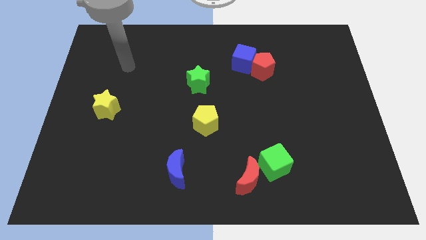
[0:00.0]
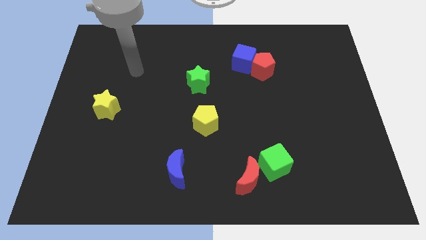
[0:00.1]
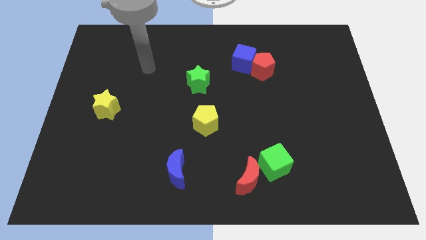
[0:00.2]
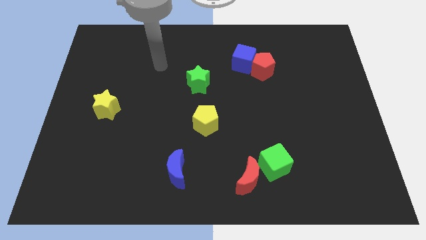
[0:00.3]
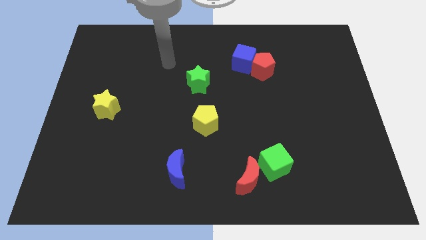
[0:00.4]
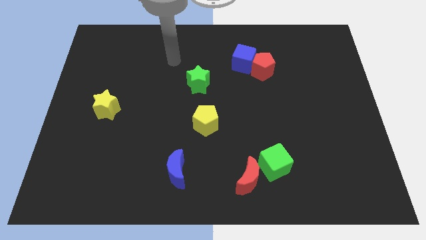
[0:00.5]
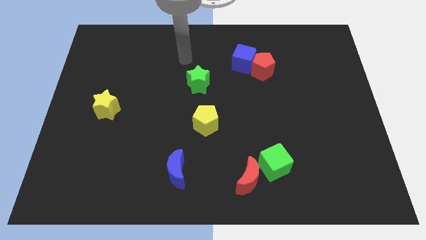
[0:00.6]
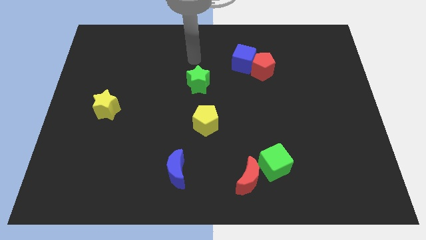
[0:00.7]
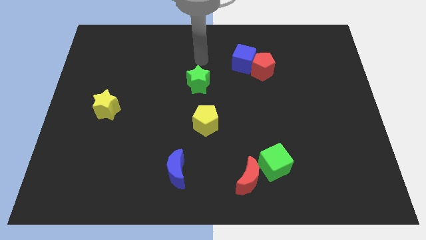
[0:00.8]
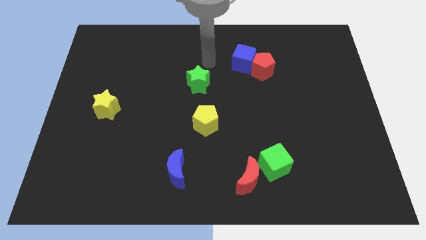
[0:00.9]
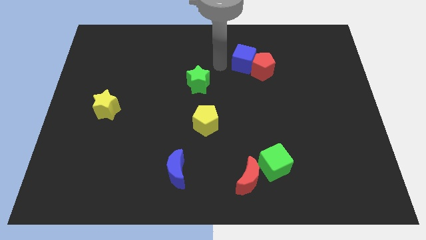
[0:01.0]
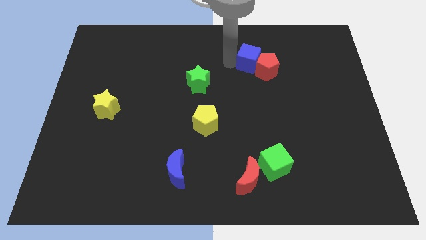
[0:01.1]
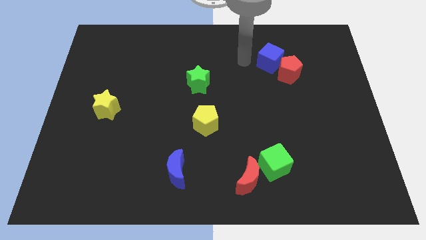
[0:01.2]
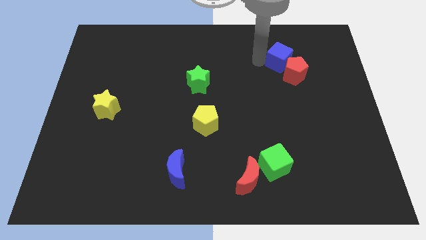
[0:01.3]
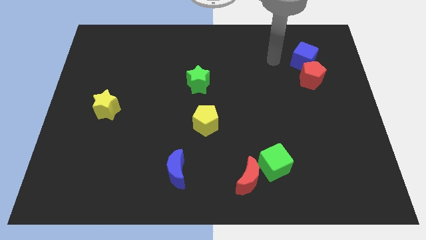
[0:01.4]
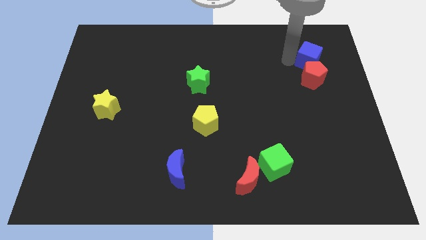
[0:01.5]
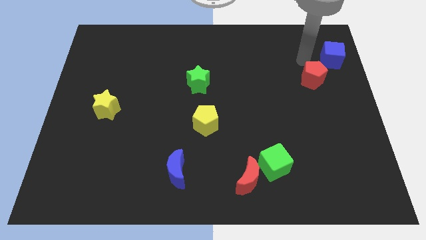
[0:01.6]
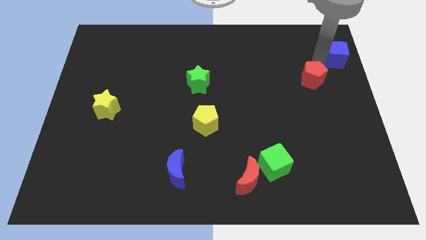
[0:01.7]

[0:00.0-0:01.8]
move the red pentagon away from the blue cube

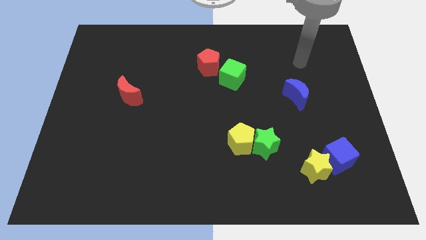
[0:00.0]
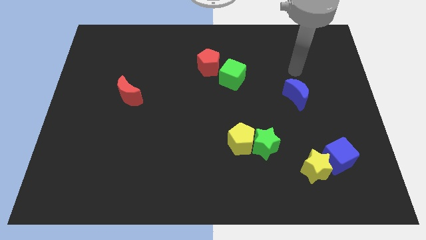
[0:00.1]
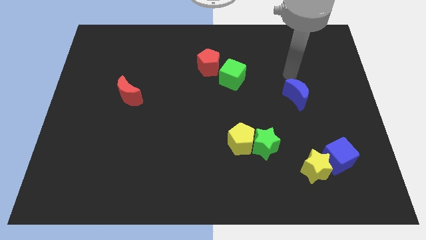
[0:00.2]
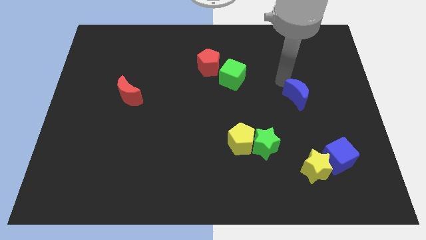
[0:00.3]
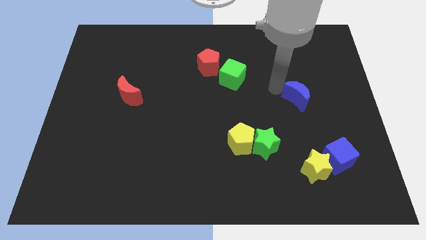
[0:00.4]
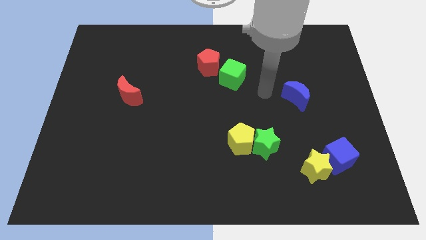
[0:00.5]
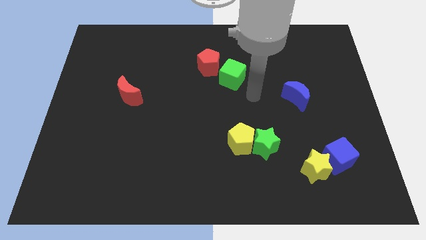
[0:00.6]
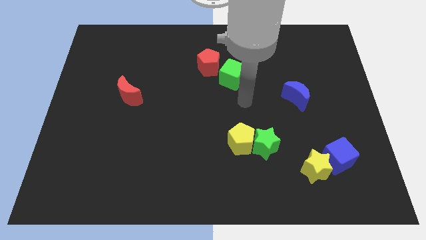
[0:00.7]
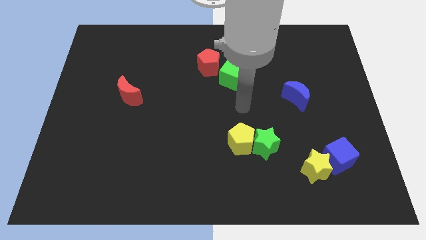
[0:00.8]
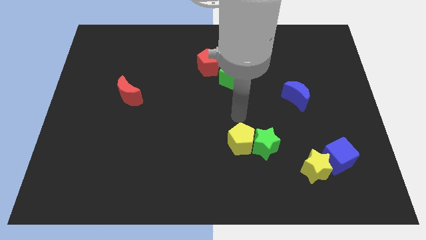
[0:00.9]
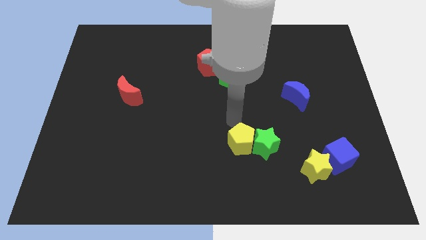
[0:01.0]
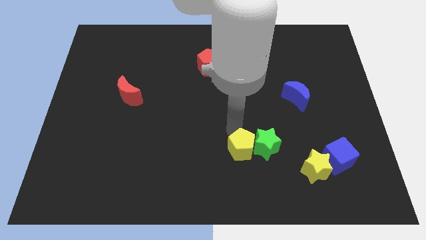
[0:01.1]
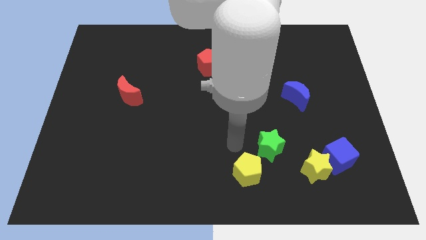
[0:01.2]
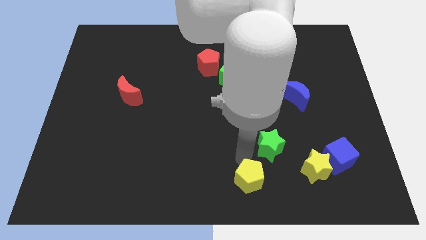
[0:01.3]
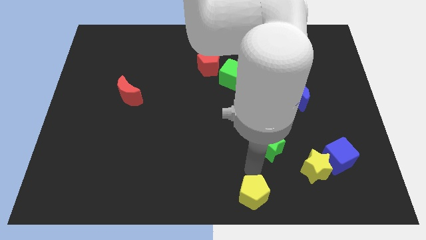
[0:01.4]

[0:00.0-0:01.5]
separate the green star from the yellow pentagon

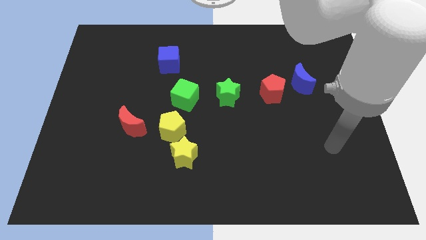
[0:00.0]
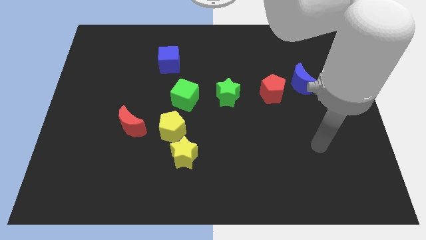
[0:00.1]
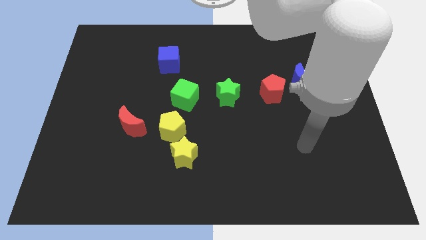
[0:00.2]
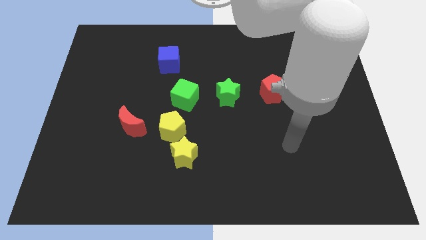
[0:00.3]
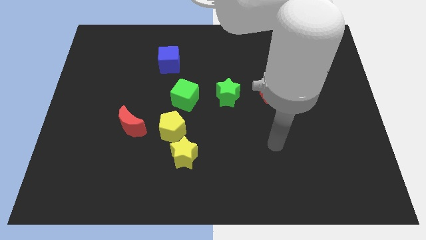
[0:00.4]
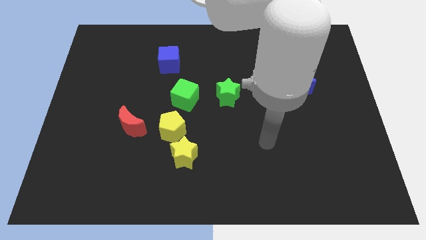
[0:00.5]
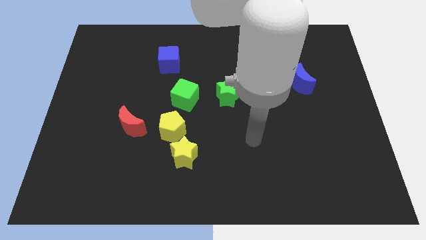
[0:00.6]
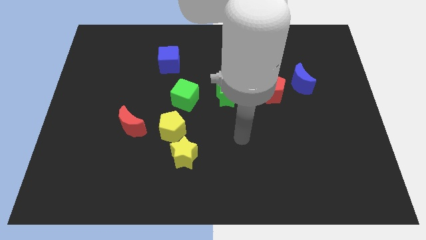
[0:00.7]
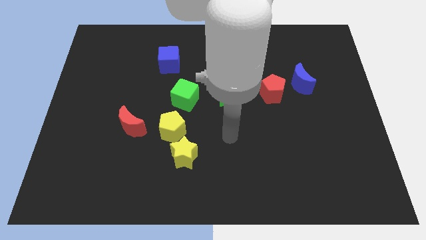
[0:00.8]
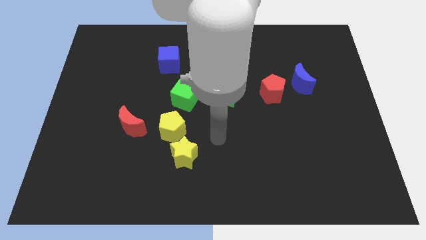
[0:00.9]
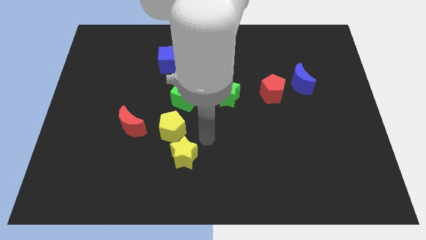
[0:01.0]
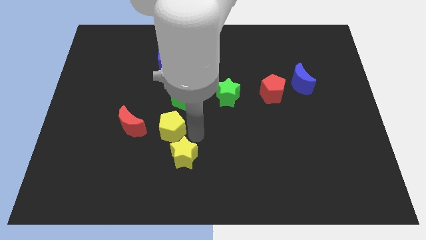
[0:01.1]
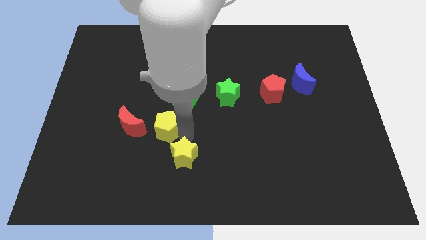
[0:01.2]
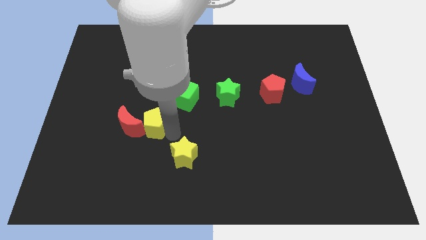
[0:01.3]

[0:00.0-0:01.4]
move the yellow star away from the yellow pentagon

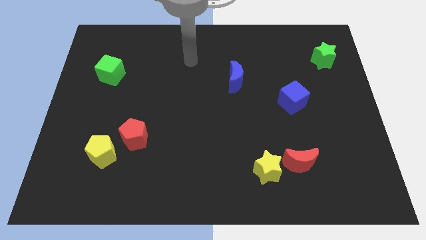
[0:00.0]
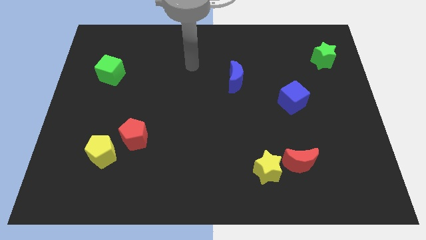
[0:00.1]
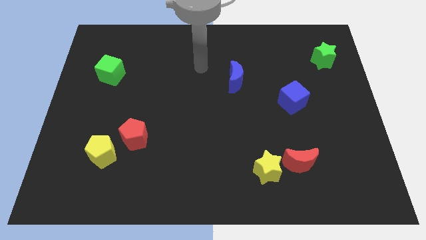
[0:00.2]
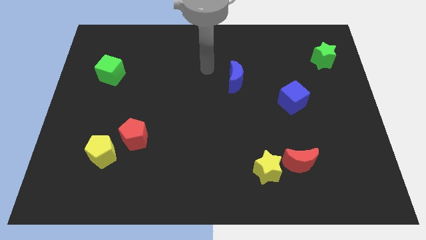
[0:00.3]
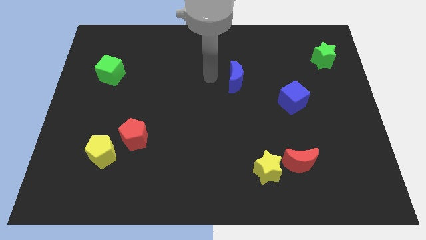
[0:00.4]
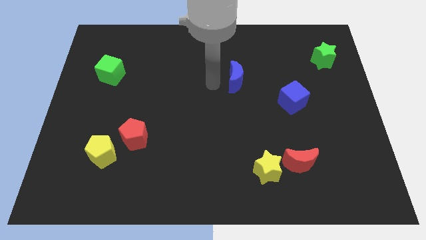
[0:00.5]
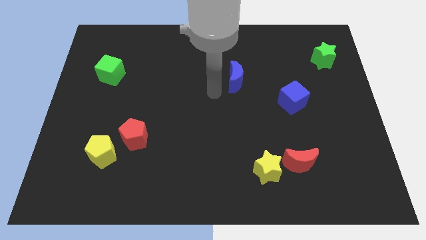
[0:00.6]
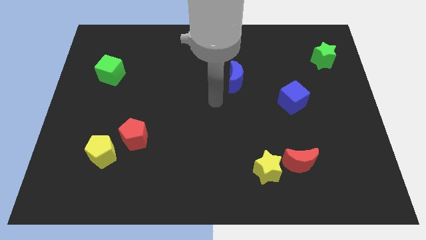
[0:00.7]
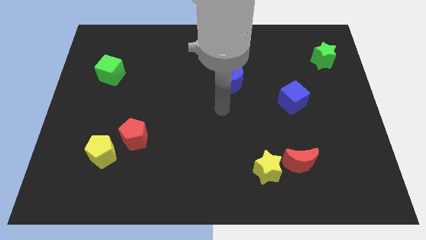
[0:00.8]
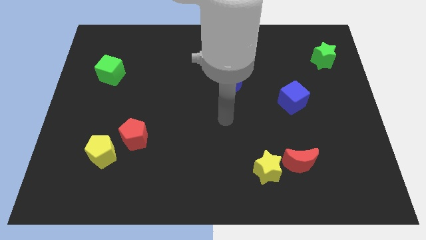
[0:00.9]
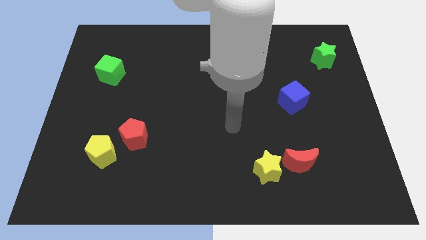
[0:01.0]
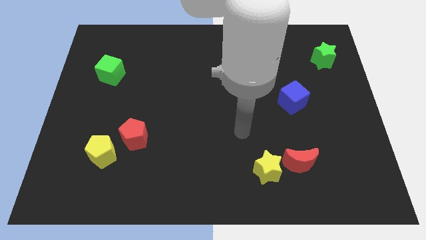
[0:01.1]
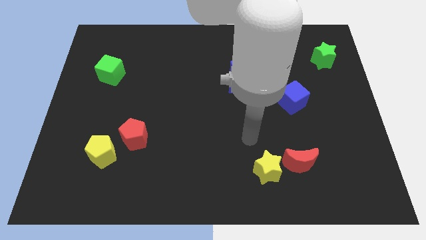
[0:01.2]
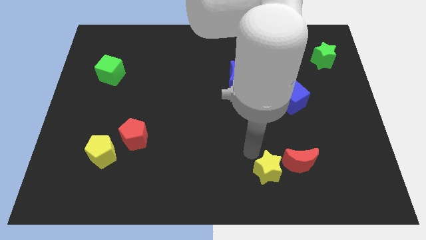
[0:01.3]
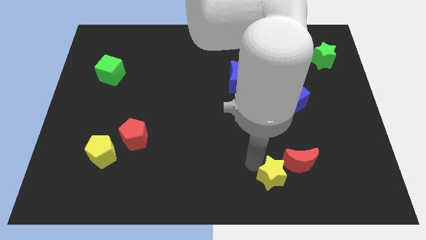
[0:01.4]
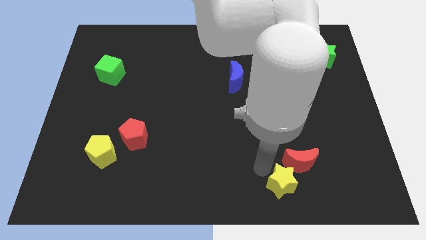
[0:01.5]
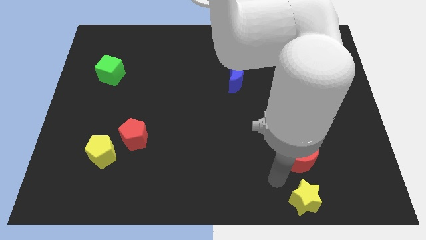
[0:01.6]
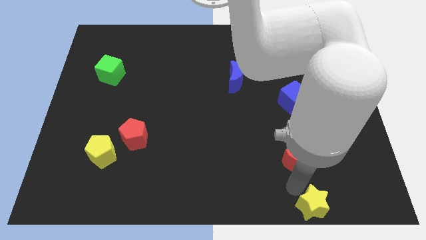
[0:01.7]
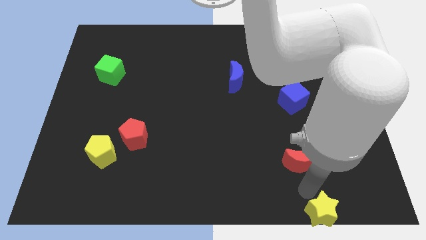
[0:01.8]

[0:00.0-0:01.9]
separate the red moon from the yellow star

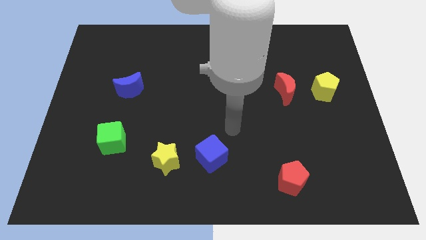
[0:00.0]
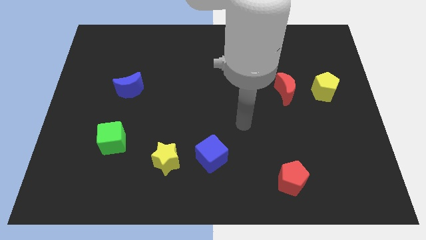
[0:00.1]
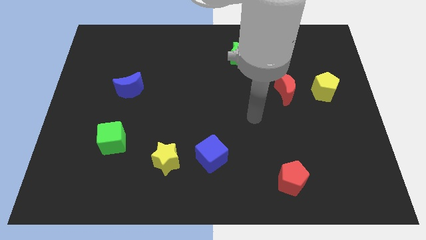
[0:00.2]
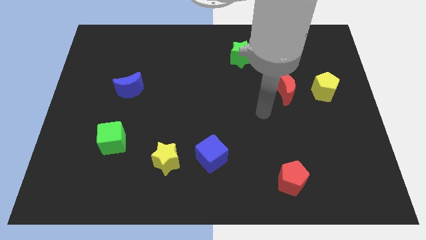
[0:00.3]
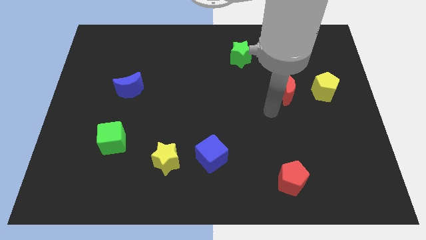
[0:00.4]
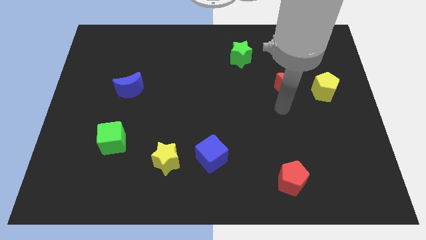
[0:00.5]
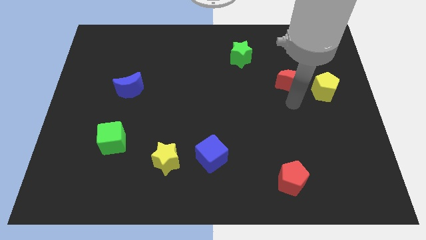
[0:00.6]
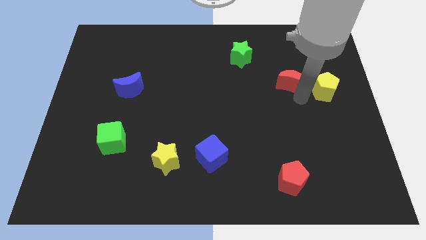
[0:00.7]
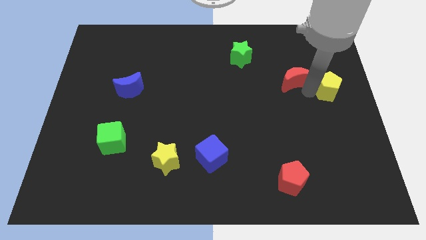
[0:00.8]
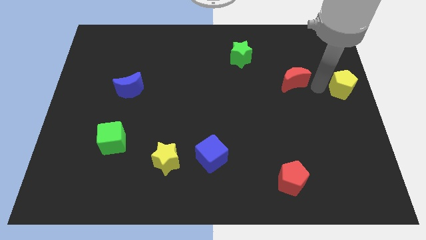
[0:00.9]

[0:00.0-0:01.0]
separate the red moon from the yellow pentagon

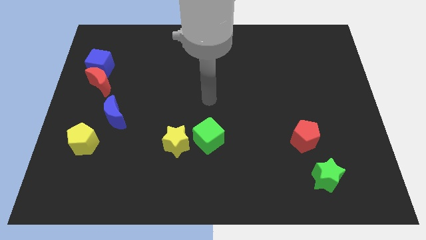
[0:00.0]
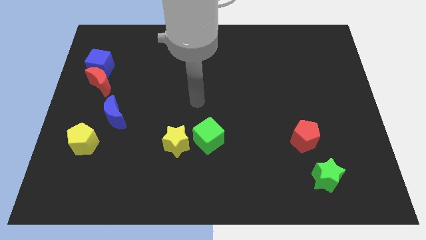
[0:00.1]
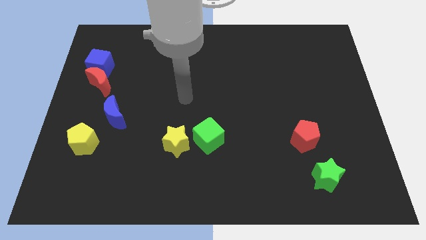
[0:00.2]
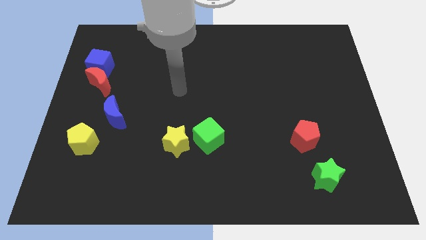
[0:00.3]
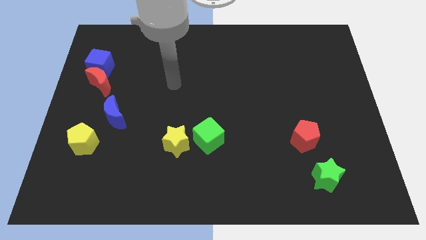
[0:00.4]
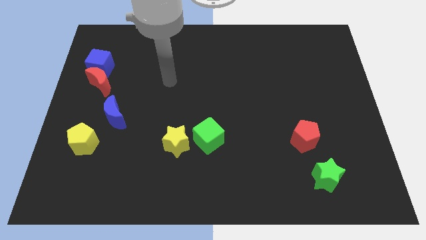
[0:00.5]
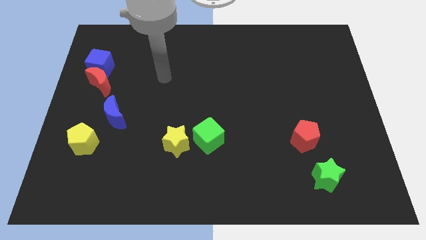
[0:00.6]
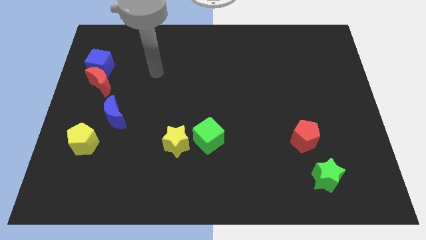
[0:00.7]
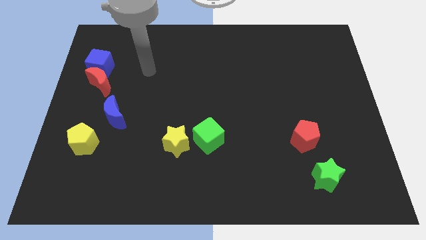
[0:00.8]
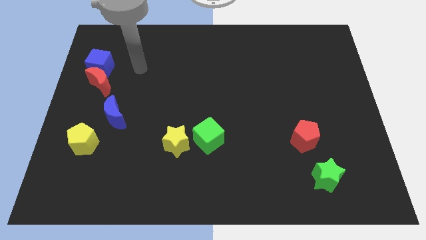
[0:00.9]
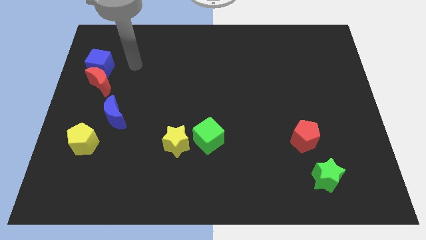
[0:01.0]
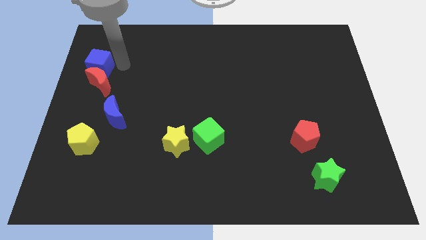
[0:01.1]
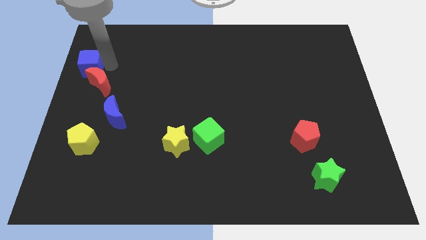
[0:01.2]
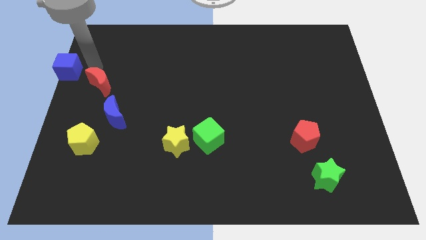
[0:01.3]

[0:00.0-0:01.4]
pull the red moon apart from the blue cube

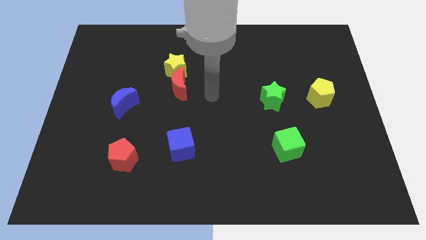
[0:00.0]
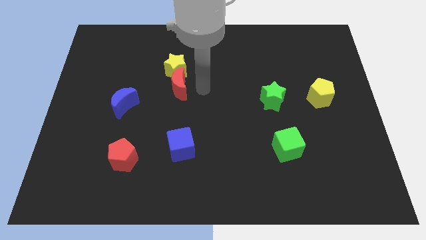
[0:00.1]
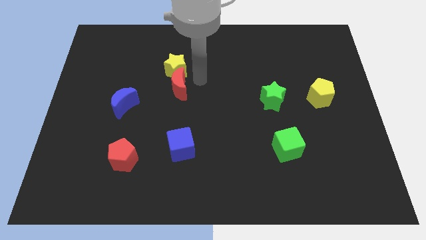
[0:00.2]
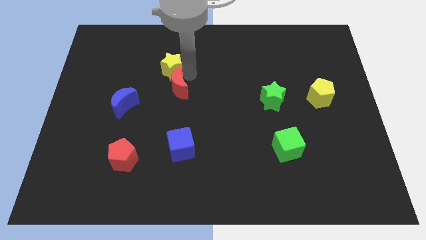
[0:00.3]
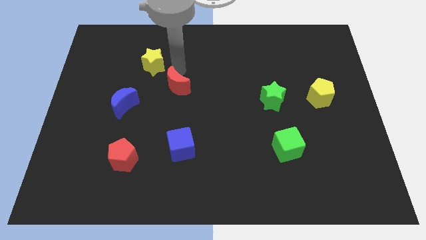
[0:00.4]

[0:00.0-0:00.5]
pull the red moon apart from the yellow star
